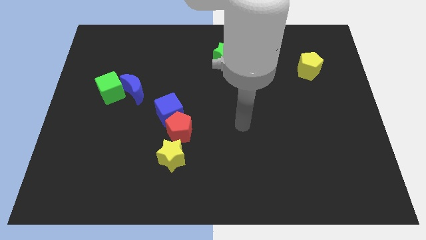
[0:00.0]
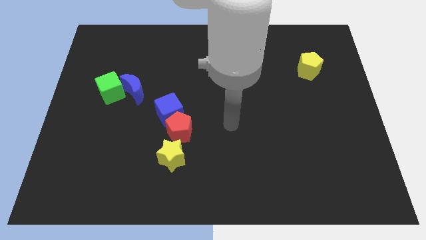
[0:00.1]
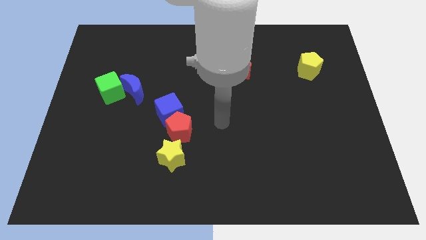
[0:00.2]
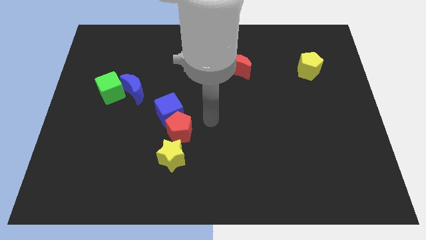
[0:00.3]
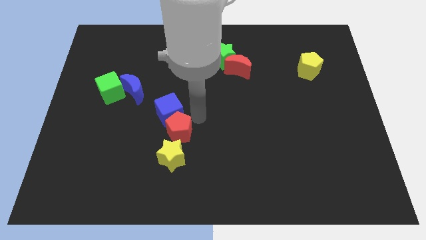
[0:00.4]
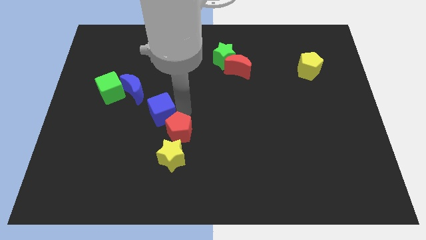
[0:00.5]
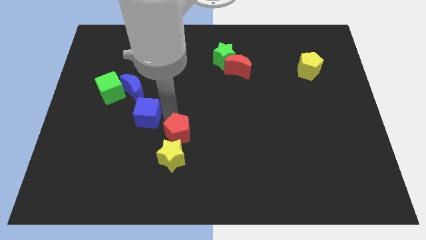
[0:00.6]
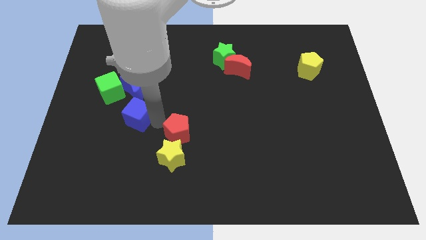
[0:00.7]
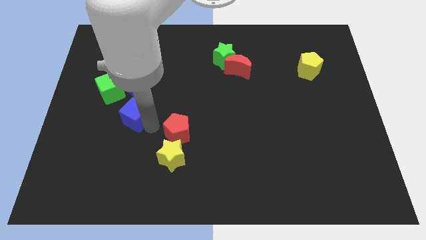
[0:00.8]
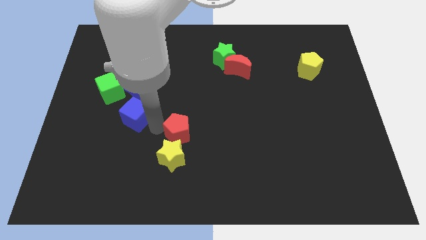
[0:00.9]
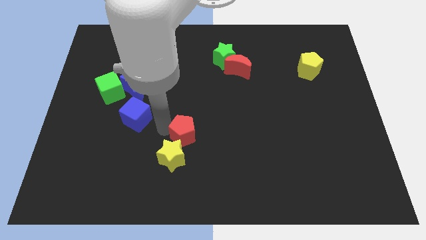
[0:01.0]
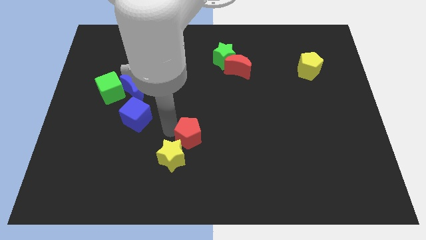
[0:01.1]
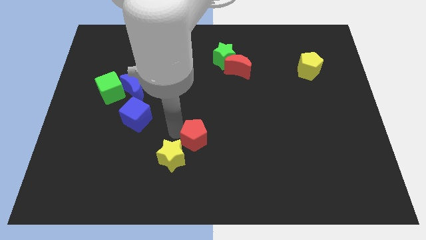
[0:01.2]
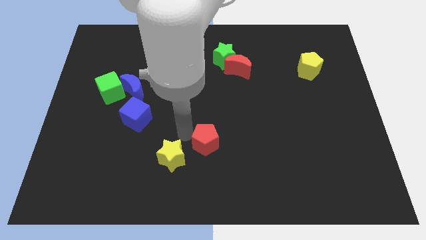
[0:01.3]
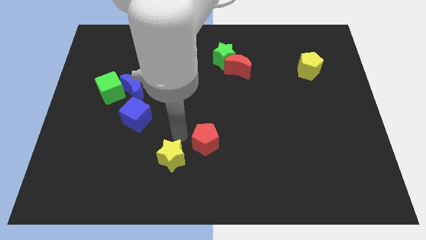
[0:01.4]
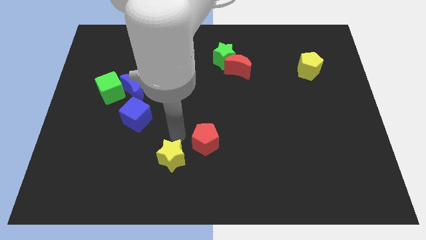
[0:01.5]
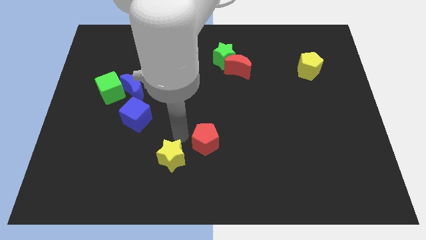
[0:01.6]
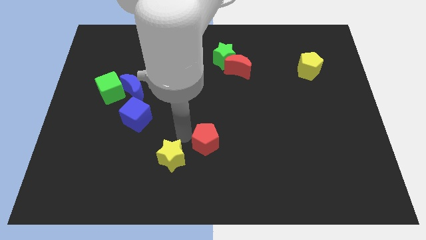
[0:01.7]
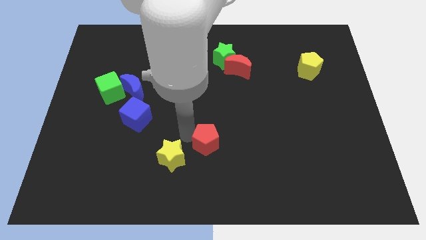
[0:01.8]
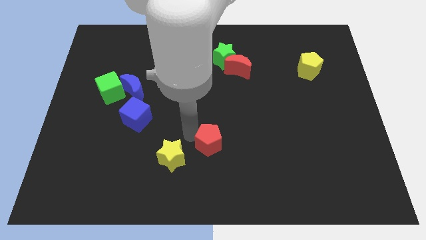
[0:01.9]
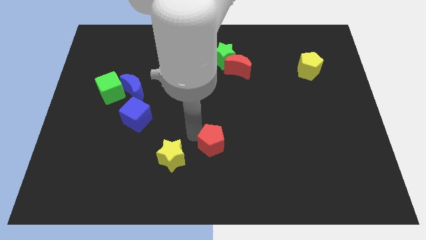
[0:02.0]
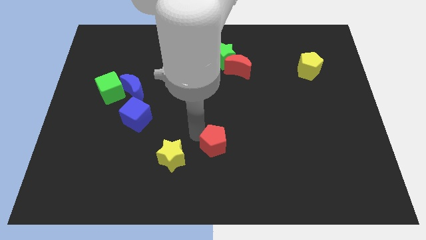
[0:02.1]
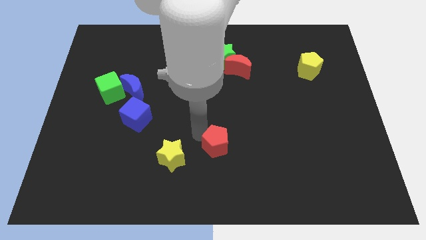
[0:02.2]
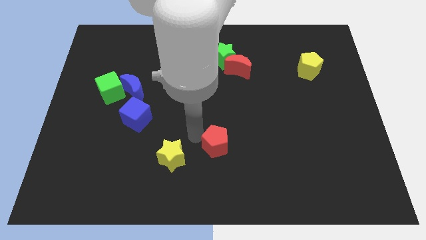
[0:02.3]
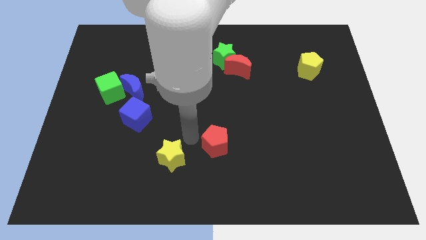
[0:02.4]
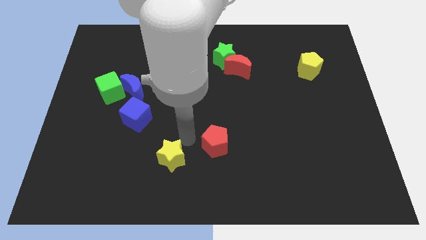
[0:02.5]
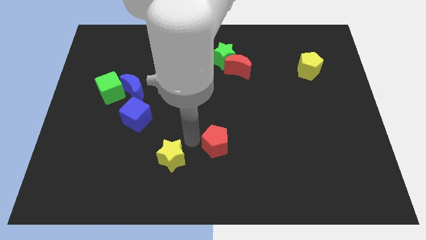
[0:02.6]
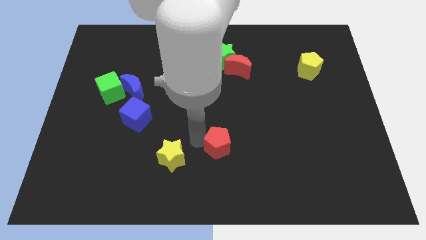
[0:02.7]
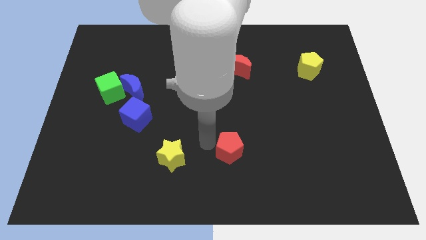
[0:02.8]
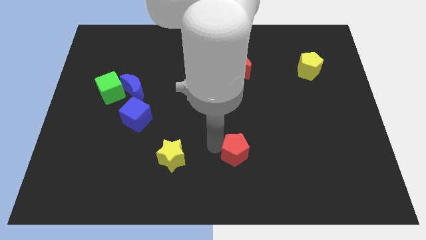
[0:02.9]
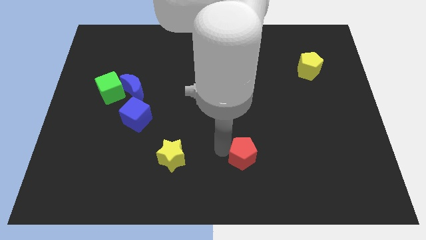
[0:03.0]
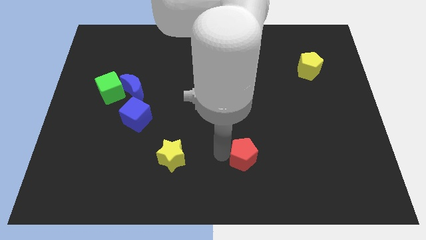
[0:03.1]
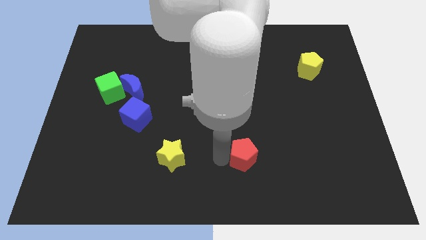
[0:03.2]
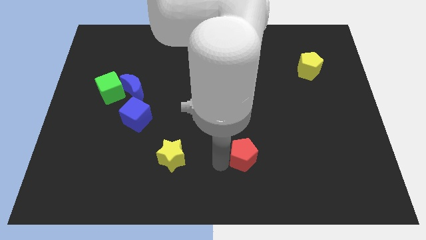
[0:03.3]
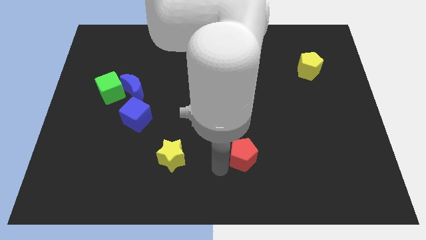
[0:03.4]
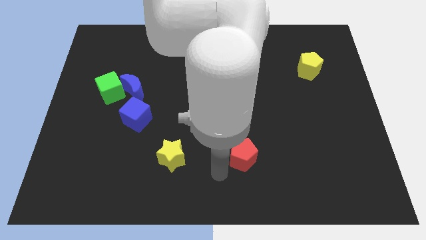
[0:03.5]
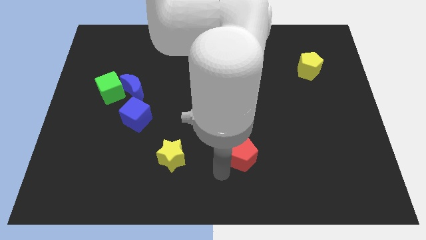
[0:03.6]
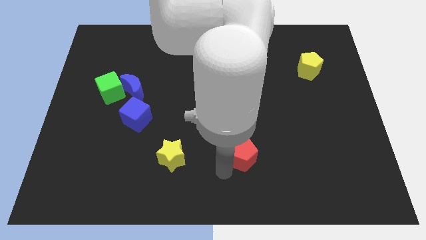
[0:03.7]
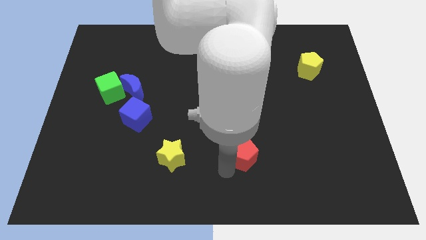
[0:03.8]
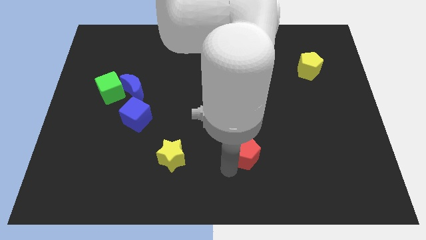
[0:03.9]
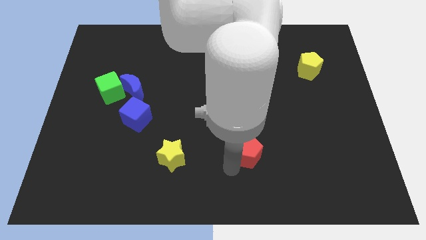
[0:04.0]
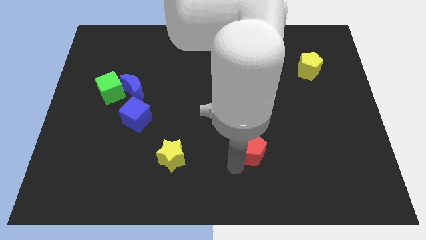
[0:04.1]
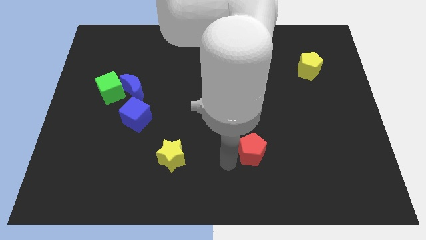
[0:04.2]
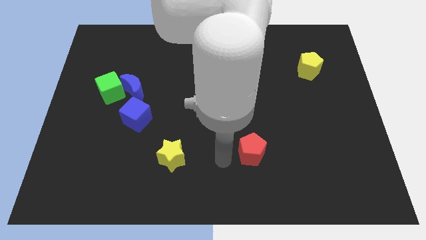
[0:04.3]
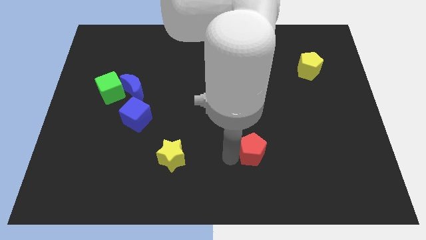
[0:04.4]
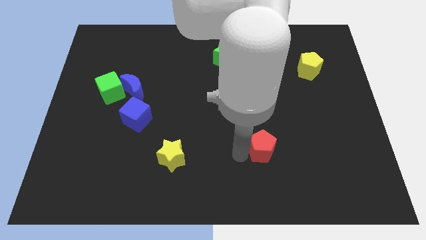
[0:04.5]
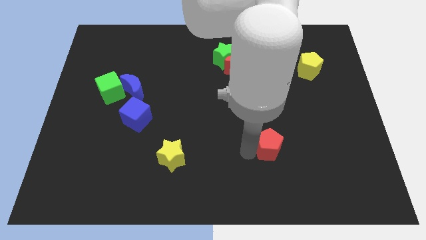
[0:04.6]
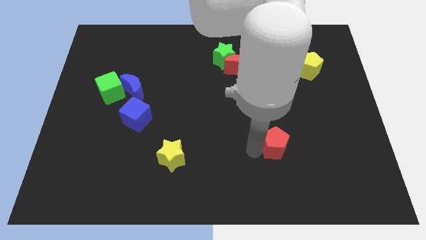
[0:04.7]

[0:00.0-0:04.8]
move the red pentagon right

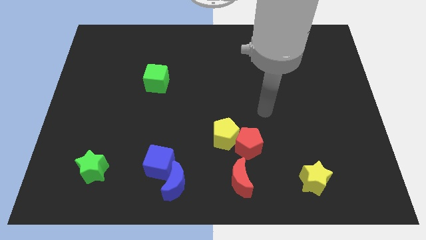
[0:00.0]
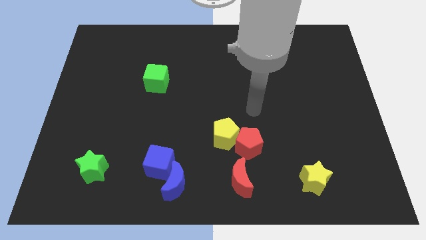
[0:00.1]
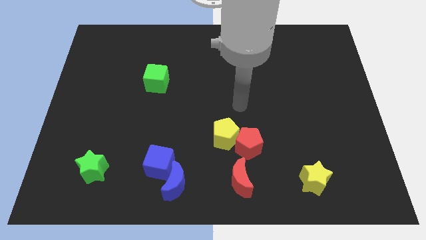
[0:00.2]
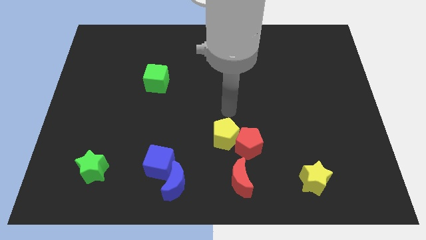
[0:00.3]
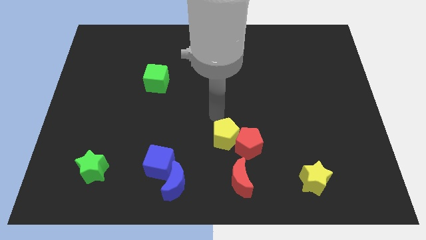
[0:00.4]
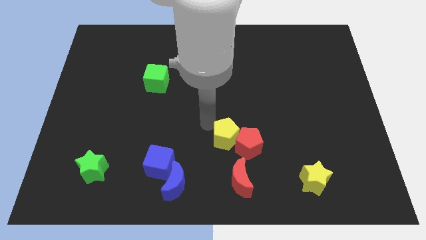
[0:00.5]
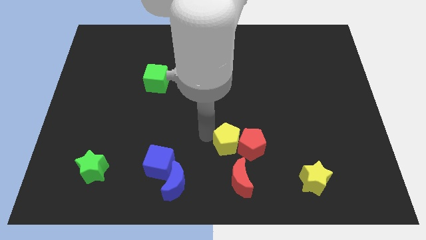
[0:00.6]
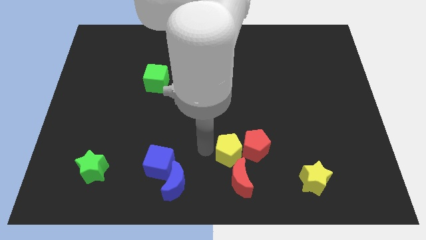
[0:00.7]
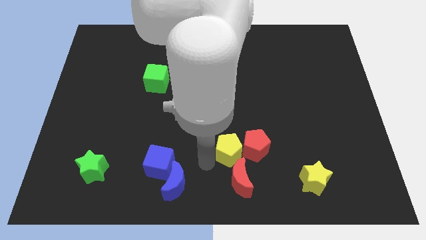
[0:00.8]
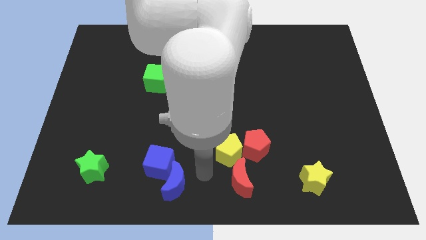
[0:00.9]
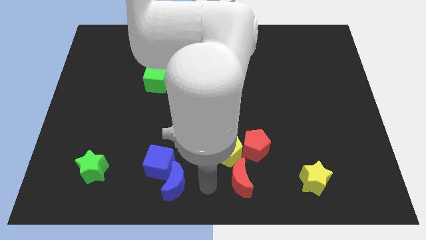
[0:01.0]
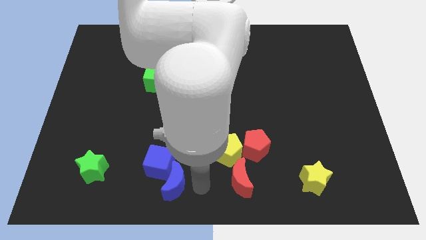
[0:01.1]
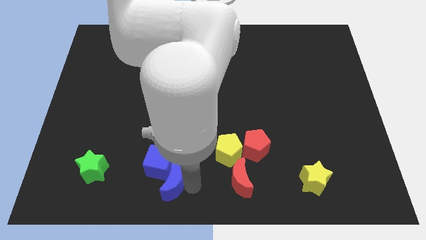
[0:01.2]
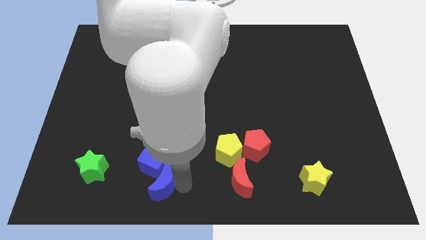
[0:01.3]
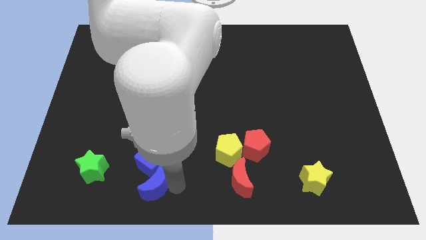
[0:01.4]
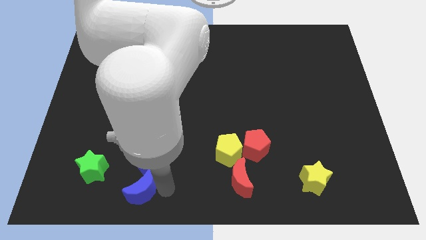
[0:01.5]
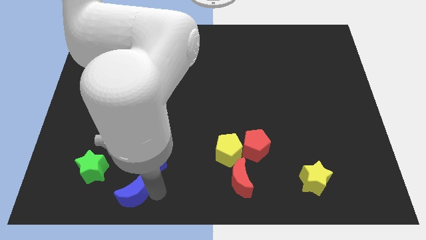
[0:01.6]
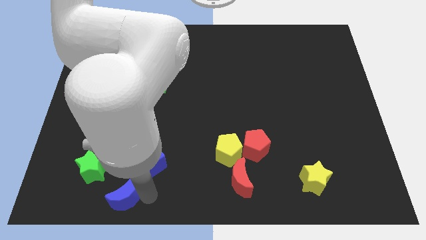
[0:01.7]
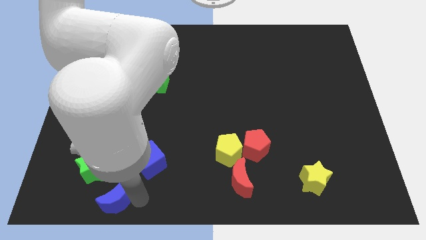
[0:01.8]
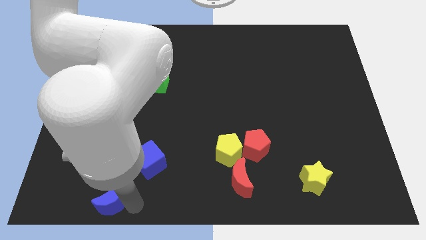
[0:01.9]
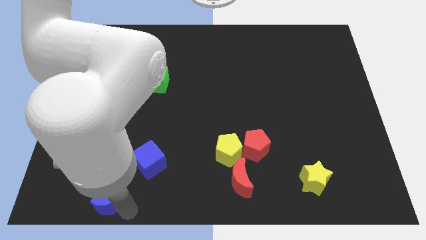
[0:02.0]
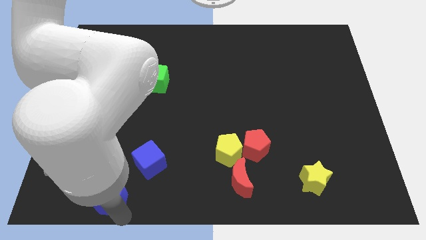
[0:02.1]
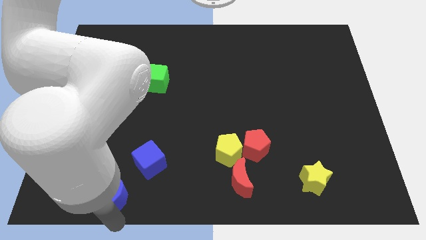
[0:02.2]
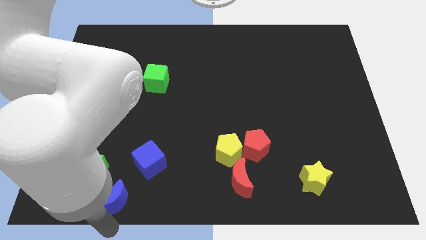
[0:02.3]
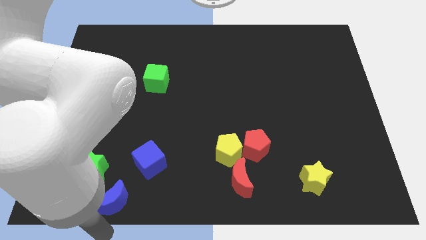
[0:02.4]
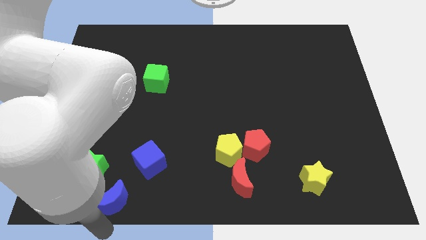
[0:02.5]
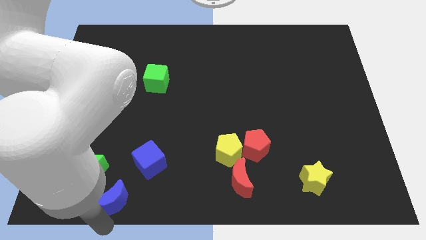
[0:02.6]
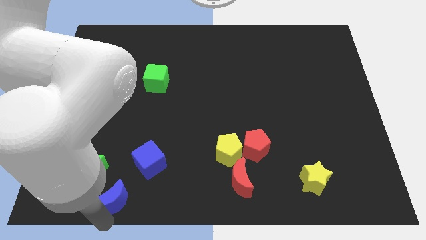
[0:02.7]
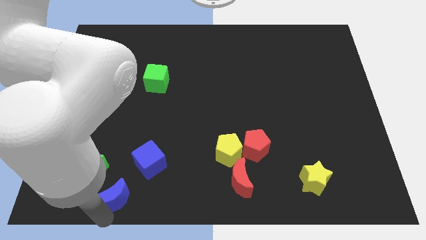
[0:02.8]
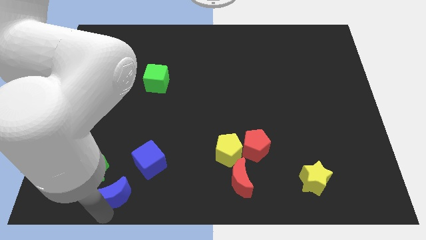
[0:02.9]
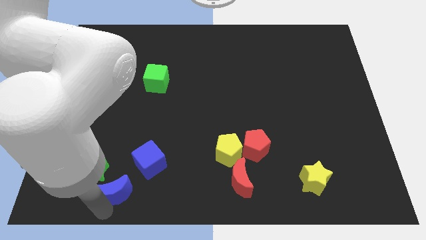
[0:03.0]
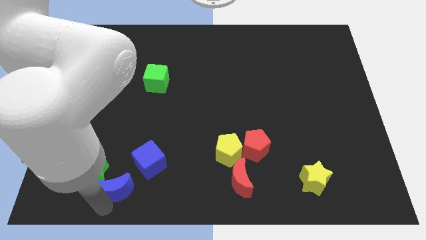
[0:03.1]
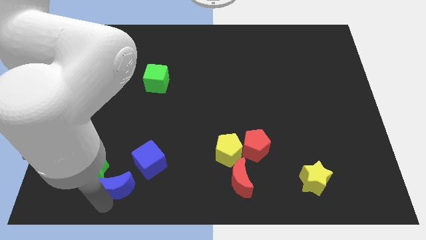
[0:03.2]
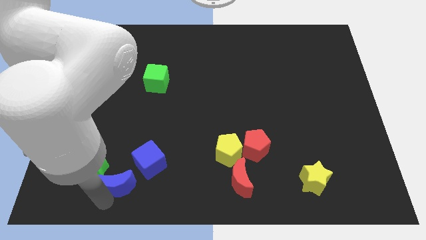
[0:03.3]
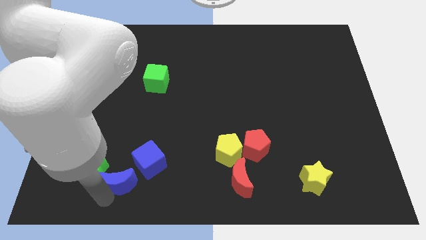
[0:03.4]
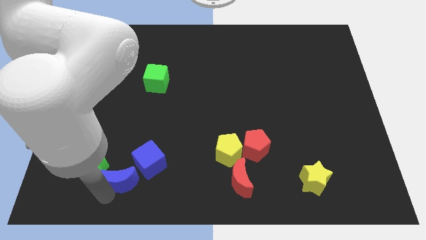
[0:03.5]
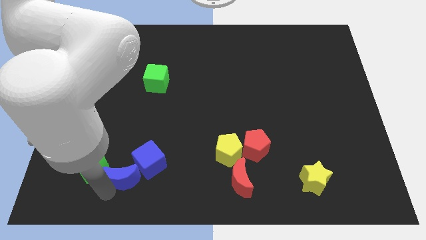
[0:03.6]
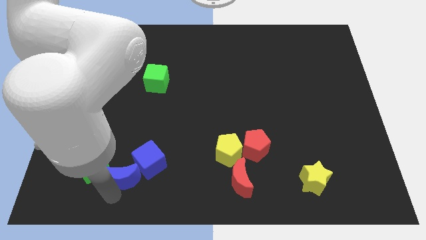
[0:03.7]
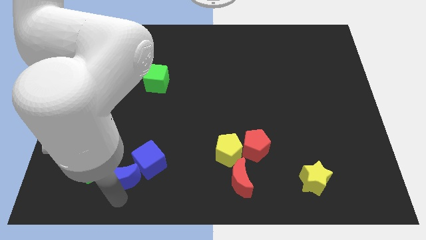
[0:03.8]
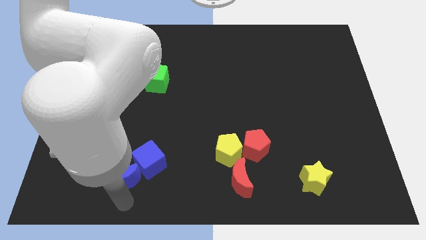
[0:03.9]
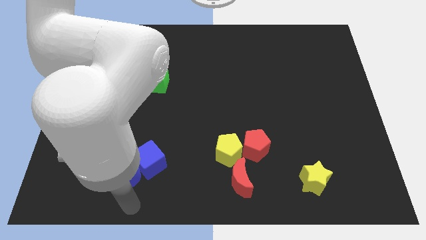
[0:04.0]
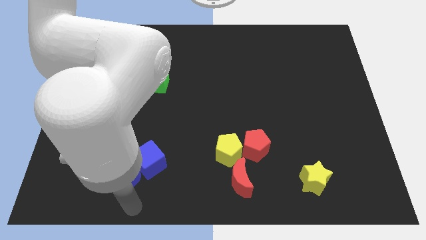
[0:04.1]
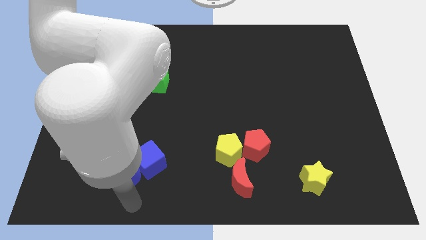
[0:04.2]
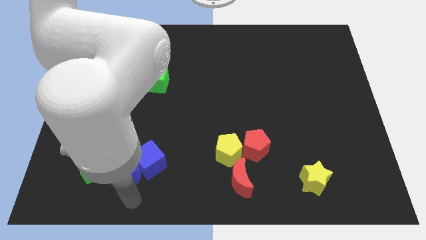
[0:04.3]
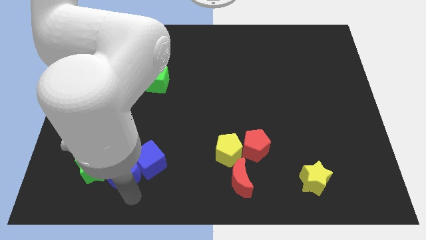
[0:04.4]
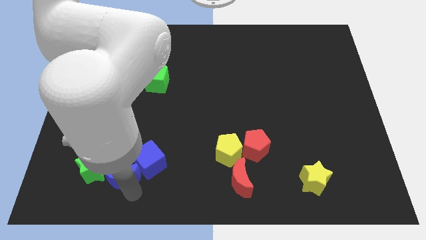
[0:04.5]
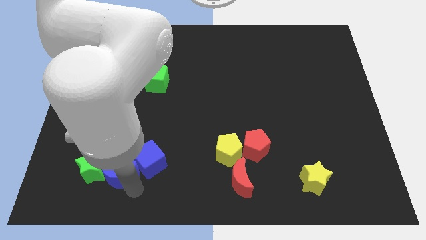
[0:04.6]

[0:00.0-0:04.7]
slide the blue moon a bit upwards and then to the left
